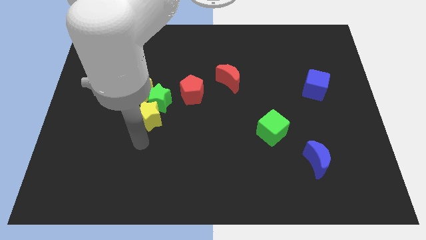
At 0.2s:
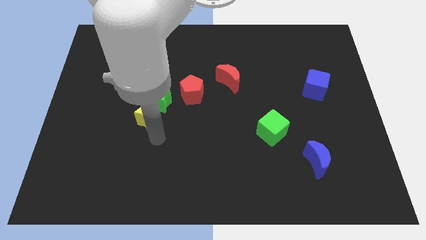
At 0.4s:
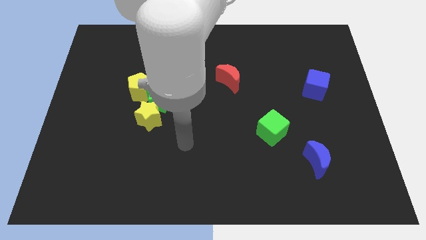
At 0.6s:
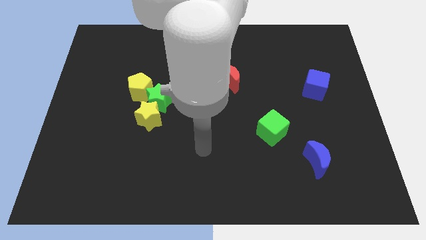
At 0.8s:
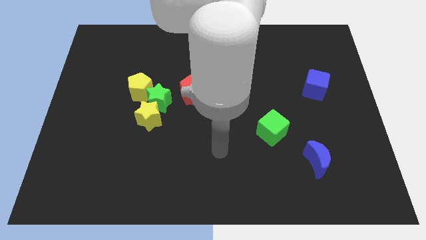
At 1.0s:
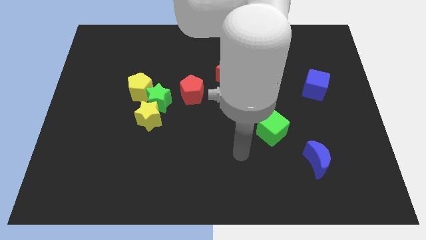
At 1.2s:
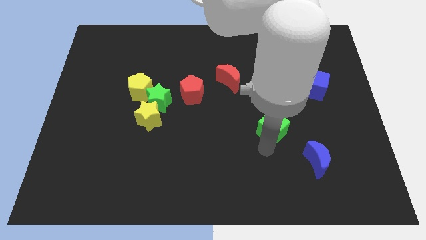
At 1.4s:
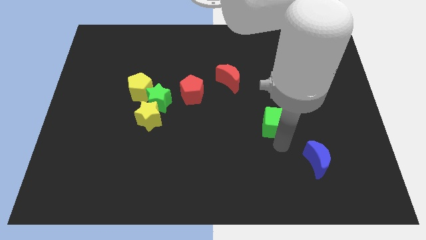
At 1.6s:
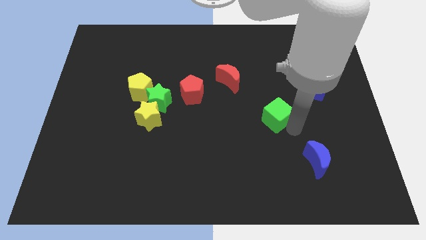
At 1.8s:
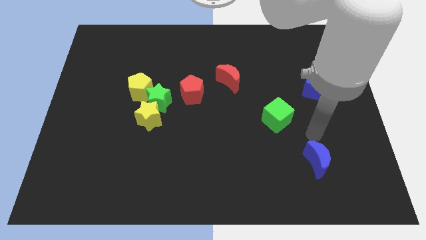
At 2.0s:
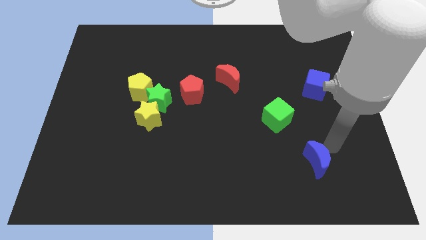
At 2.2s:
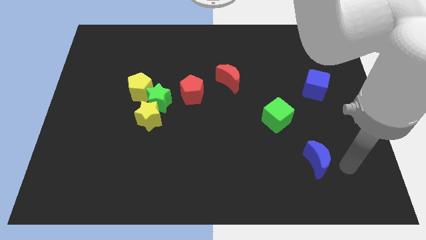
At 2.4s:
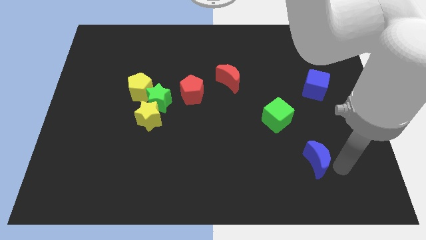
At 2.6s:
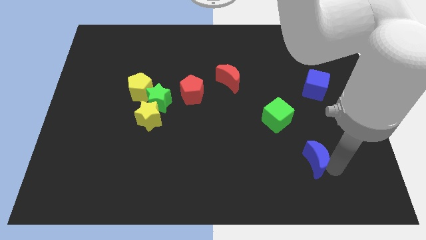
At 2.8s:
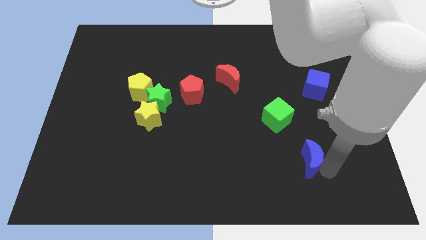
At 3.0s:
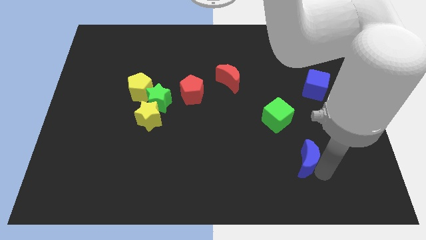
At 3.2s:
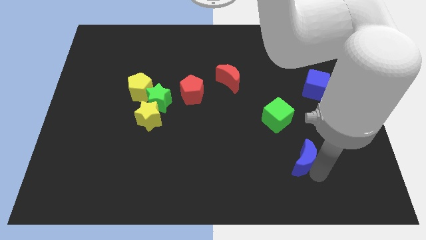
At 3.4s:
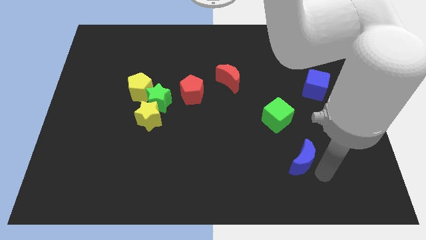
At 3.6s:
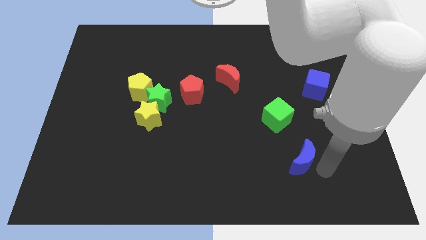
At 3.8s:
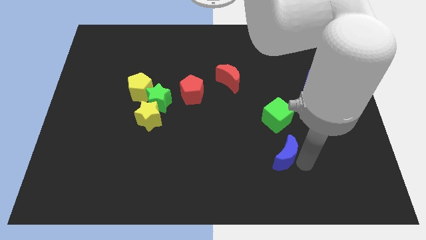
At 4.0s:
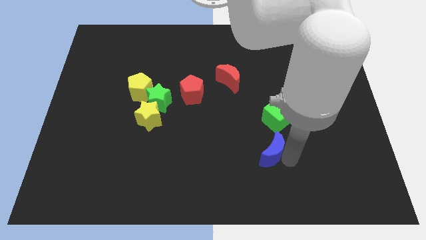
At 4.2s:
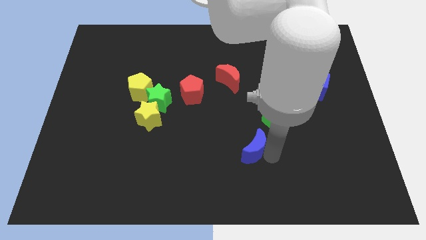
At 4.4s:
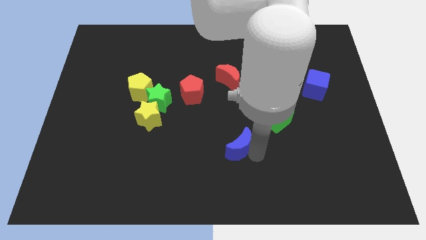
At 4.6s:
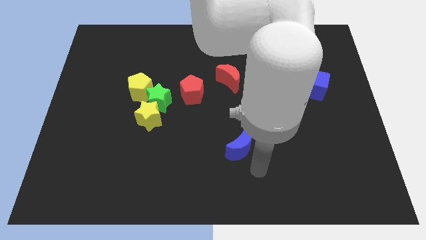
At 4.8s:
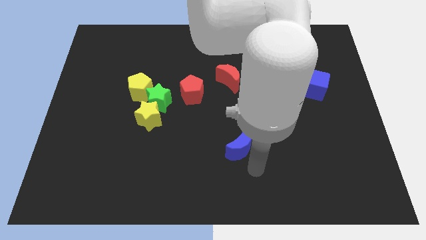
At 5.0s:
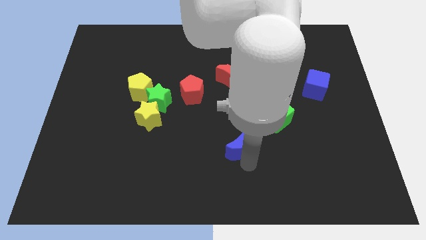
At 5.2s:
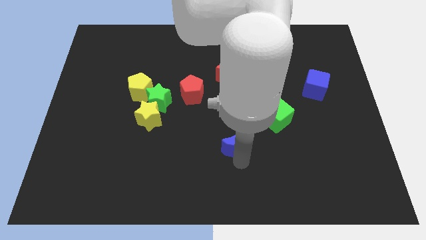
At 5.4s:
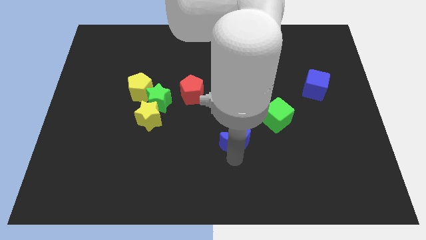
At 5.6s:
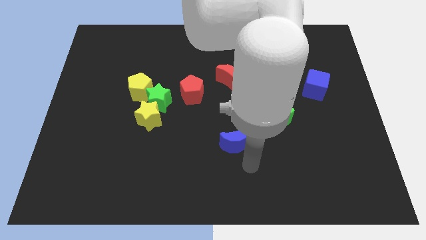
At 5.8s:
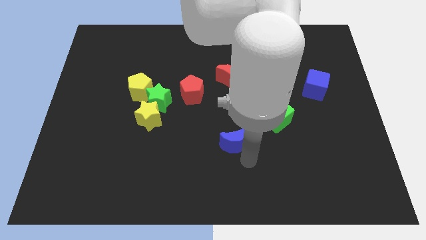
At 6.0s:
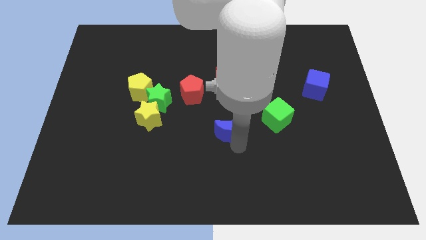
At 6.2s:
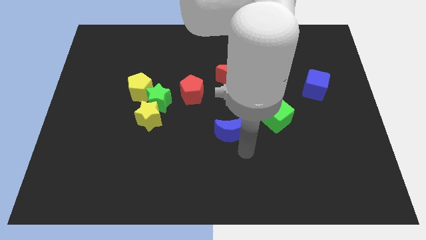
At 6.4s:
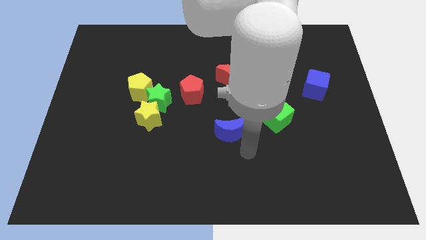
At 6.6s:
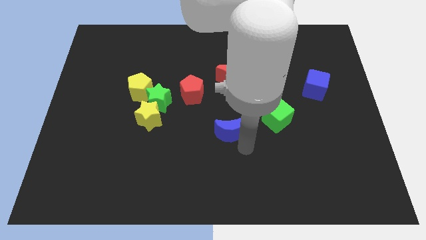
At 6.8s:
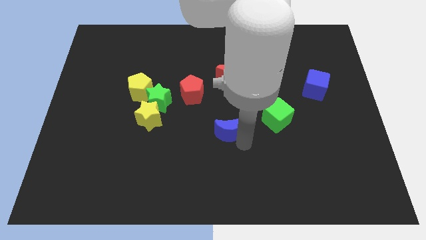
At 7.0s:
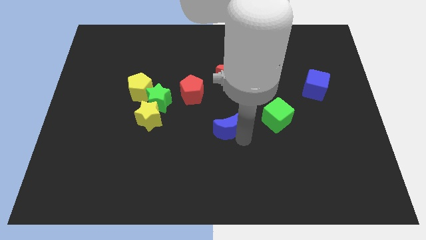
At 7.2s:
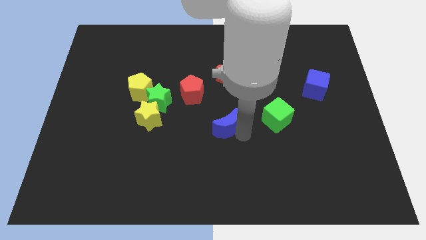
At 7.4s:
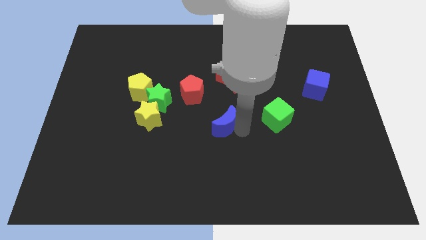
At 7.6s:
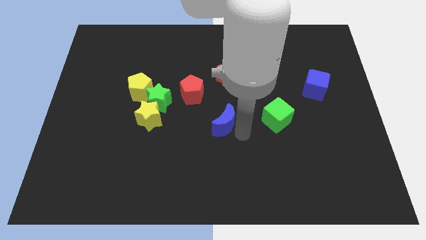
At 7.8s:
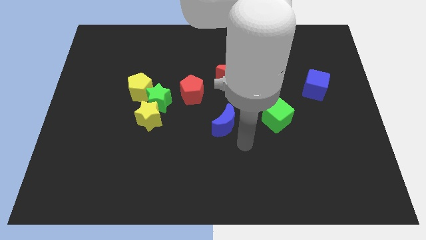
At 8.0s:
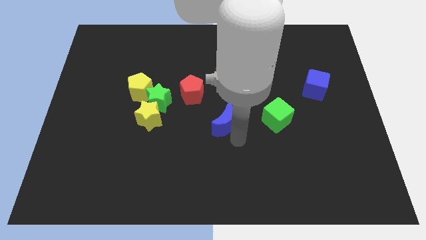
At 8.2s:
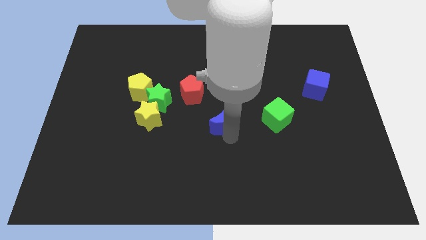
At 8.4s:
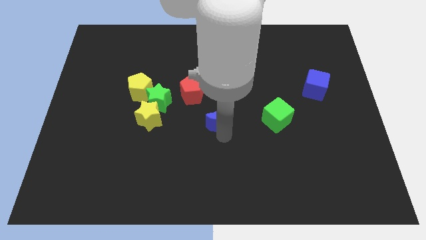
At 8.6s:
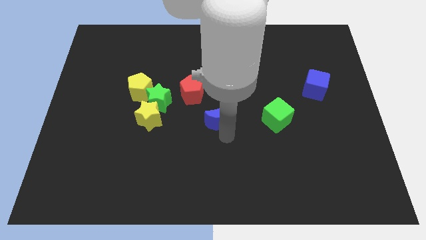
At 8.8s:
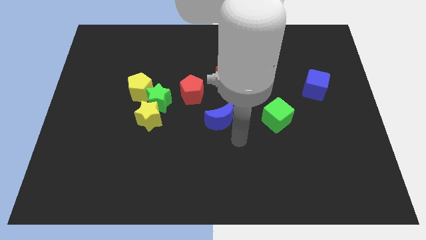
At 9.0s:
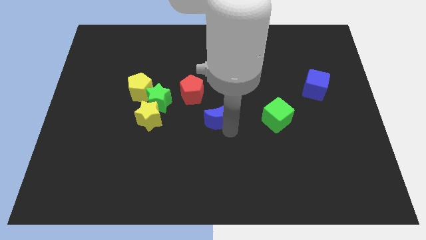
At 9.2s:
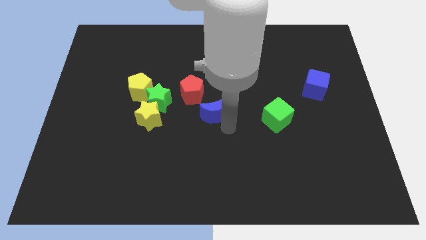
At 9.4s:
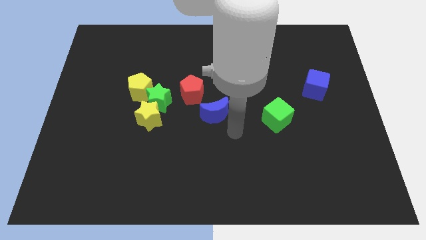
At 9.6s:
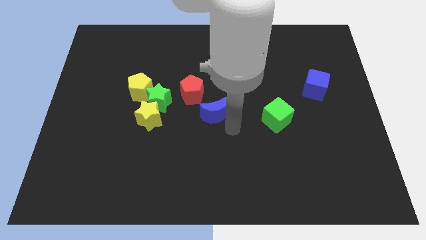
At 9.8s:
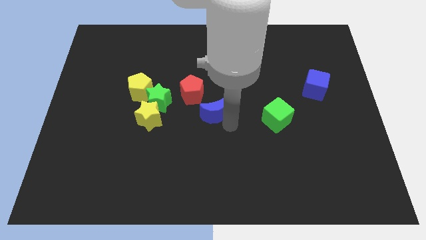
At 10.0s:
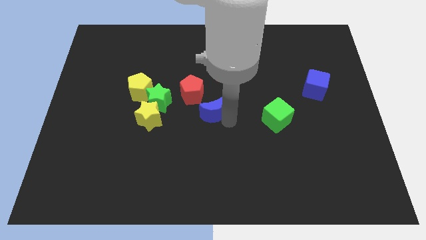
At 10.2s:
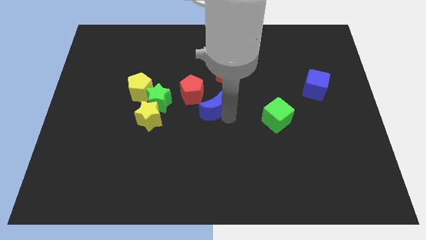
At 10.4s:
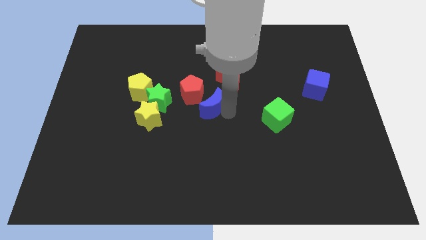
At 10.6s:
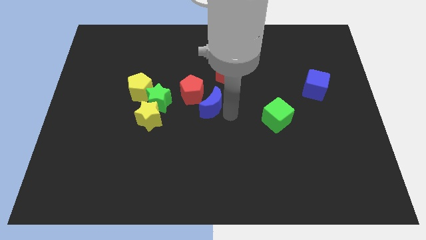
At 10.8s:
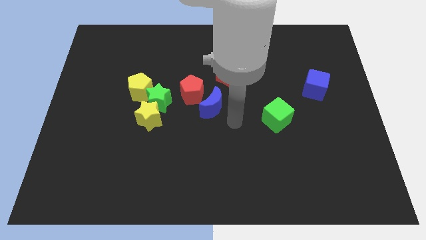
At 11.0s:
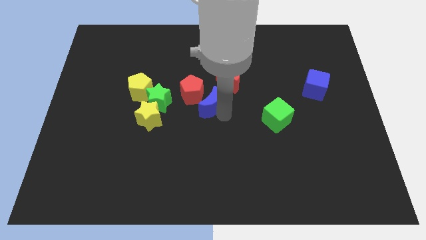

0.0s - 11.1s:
move the blue moon towards the red pentagon

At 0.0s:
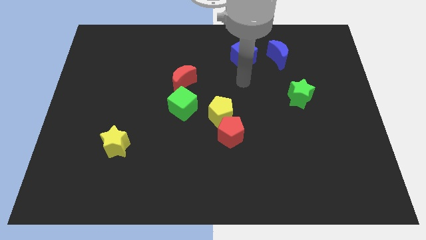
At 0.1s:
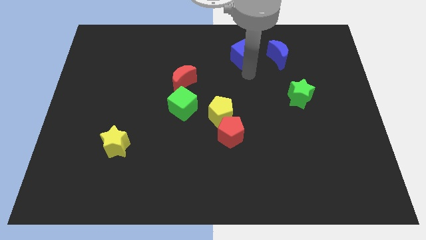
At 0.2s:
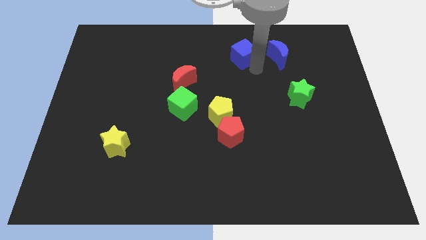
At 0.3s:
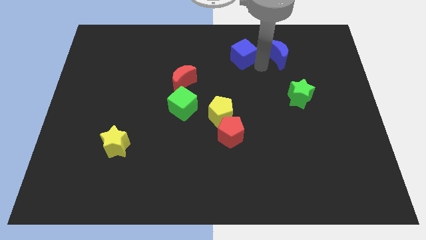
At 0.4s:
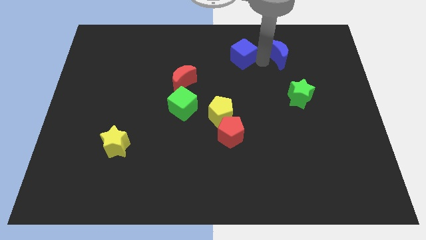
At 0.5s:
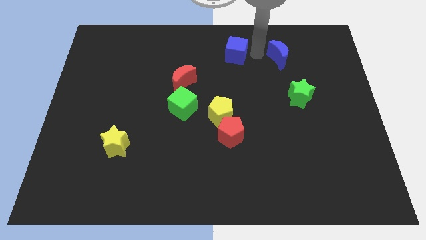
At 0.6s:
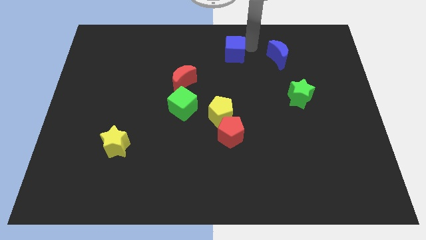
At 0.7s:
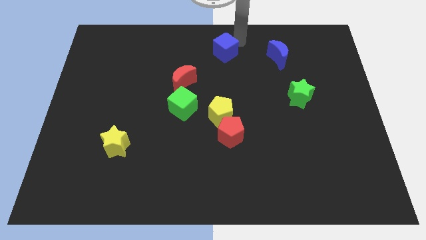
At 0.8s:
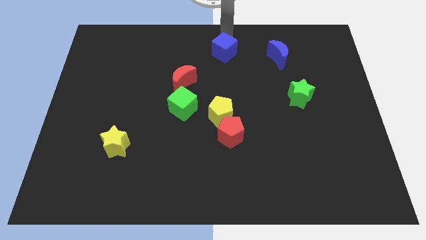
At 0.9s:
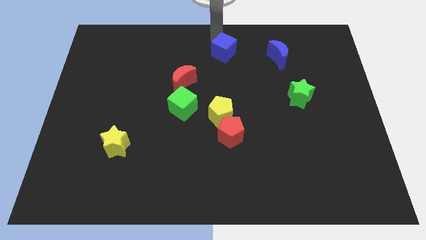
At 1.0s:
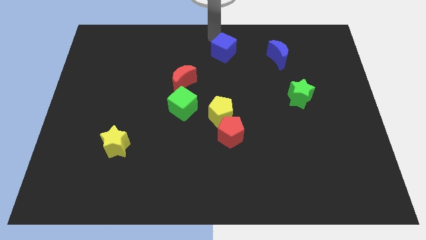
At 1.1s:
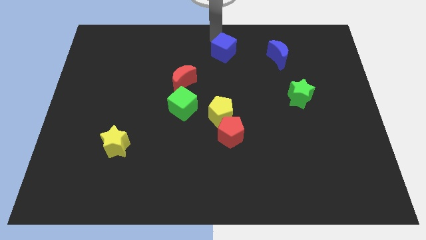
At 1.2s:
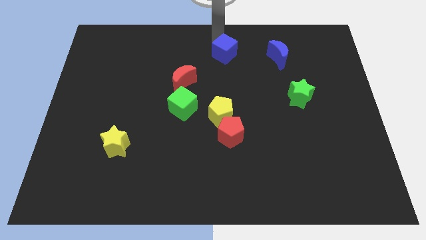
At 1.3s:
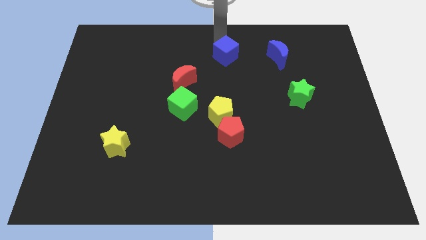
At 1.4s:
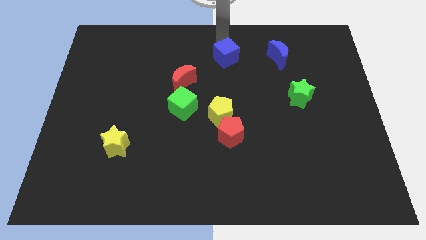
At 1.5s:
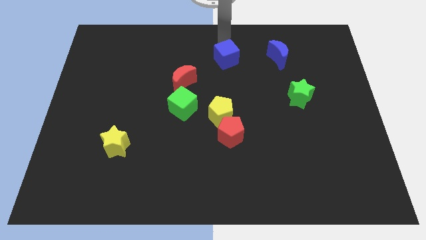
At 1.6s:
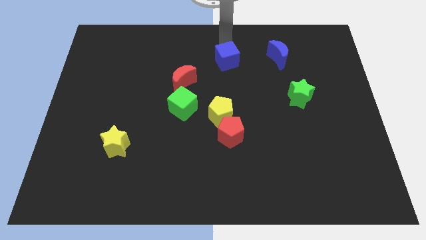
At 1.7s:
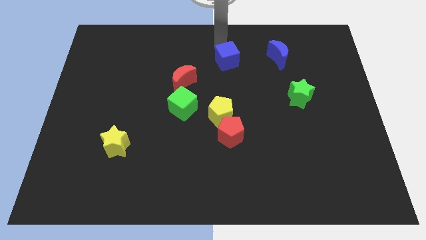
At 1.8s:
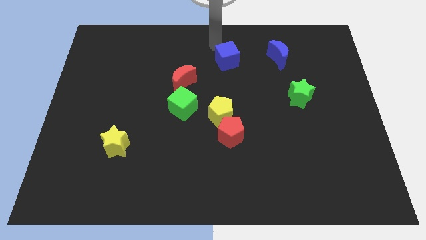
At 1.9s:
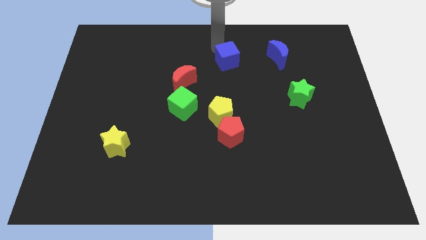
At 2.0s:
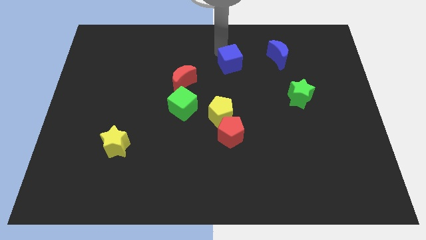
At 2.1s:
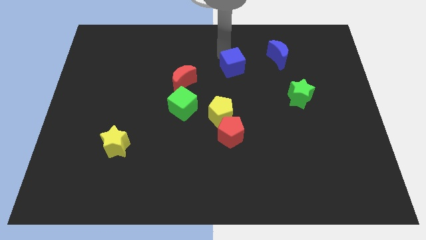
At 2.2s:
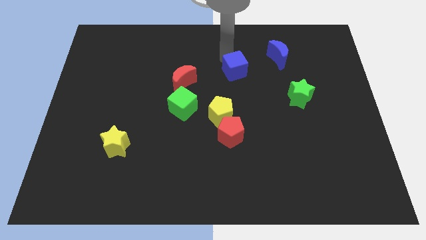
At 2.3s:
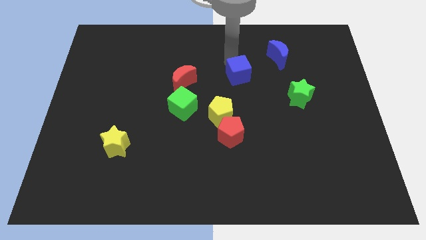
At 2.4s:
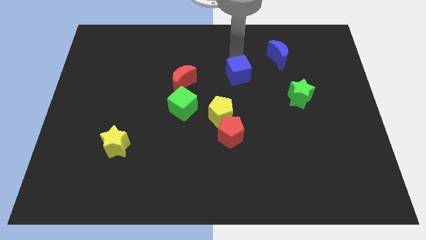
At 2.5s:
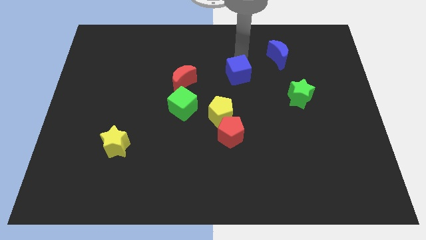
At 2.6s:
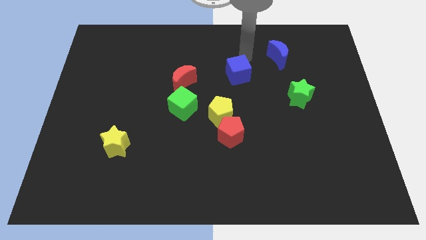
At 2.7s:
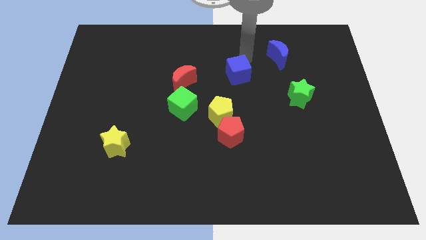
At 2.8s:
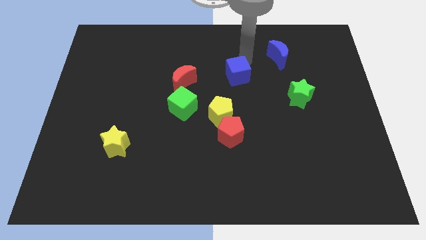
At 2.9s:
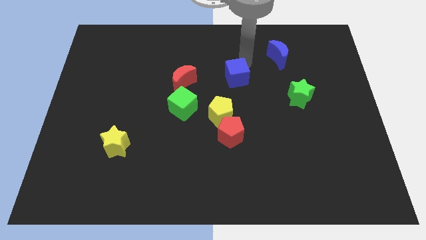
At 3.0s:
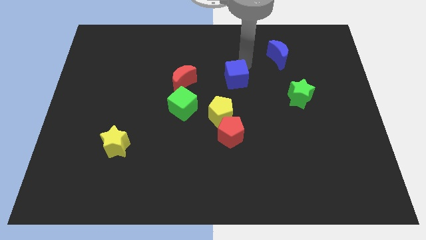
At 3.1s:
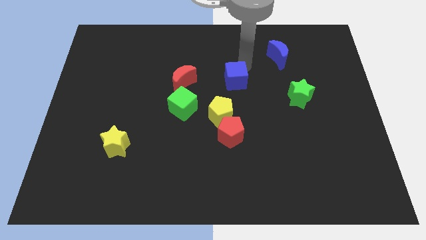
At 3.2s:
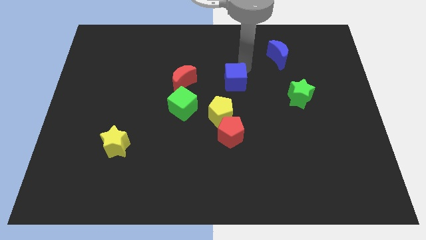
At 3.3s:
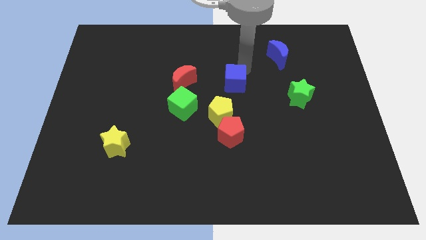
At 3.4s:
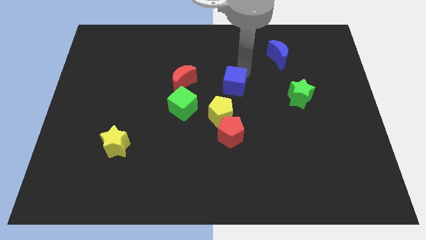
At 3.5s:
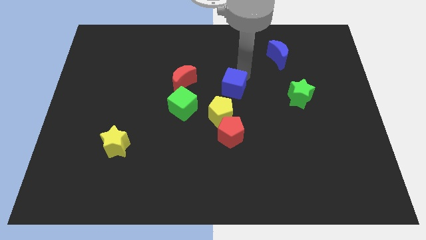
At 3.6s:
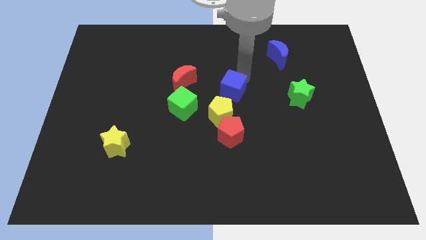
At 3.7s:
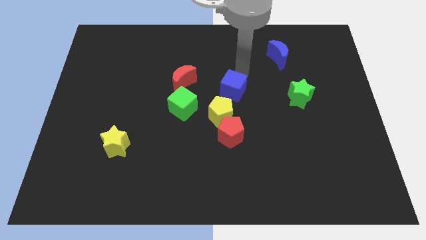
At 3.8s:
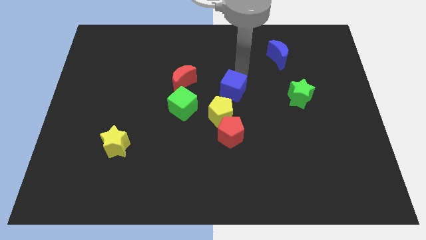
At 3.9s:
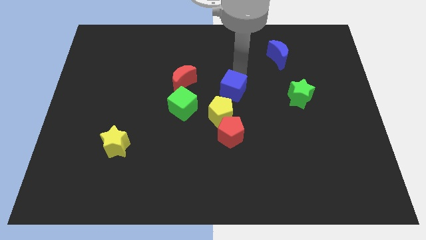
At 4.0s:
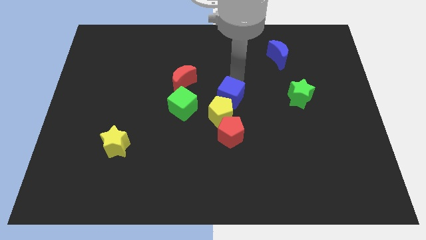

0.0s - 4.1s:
move the blue cube to the yellow pentagon
